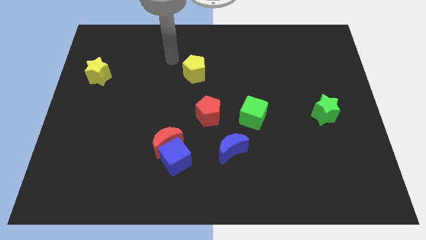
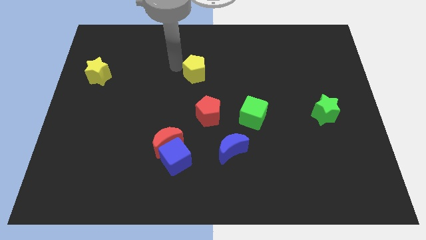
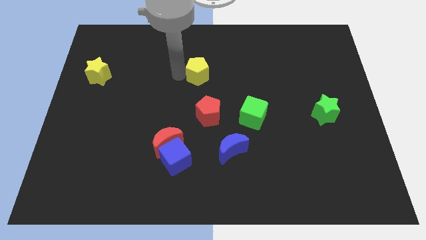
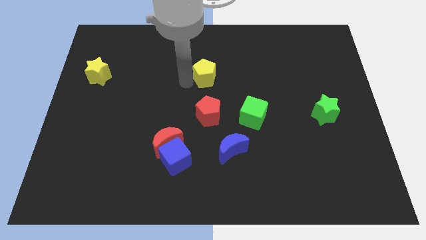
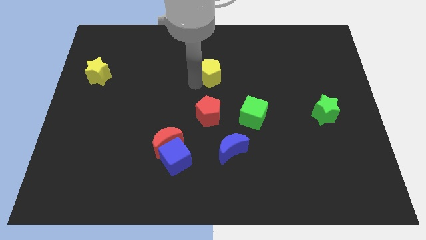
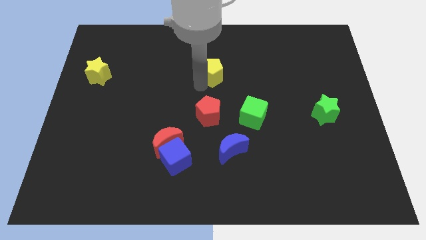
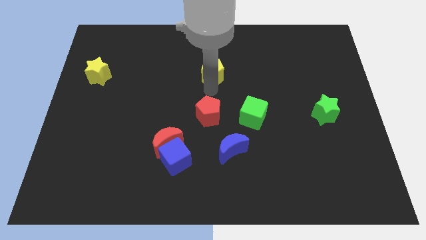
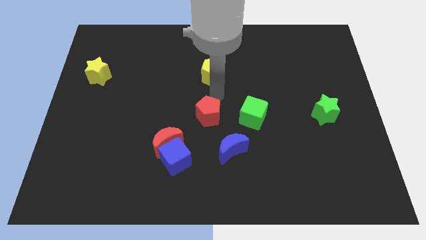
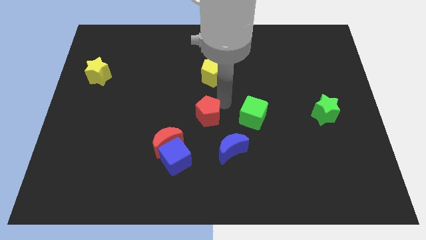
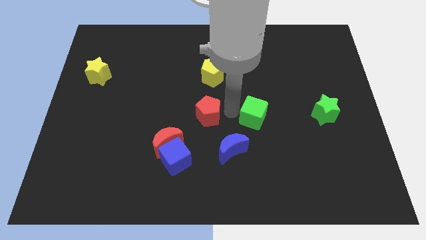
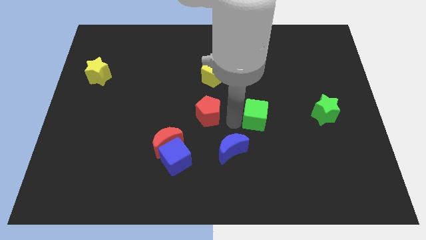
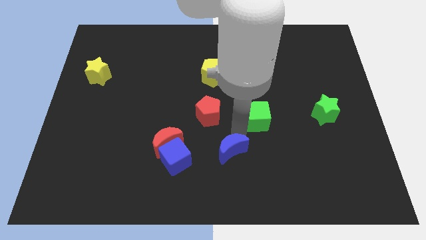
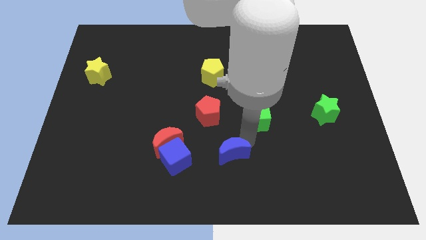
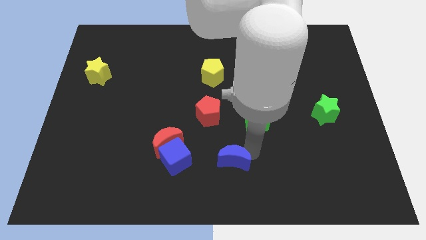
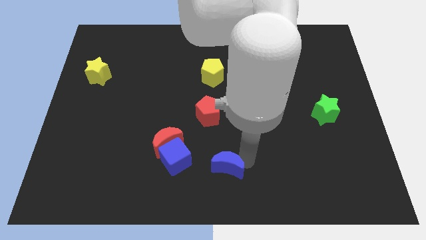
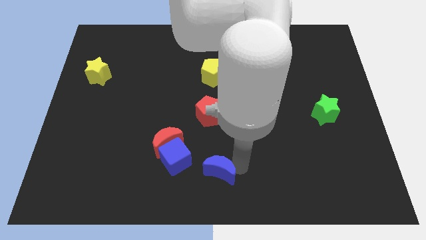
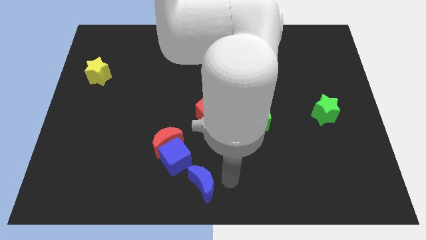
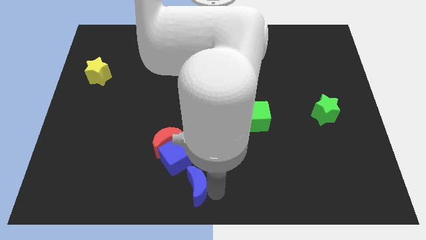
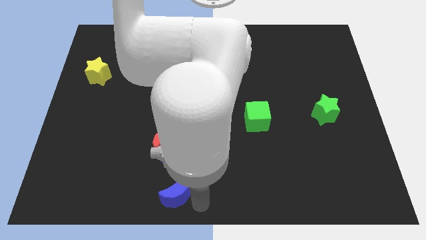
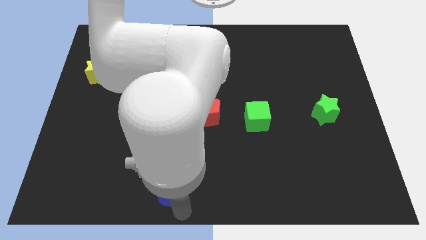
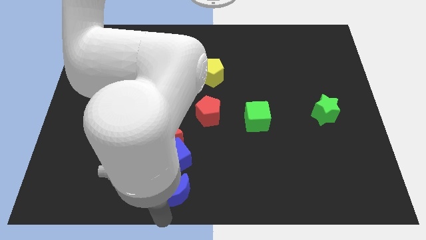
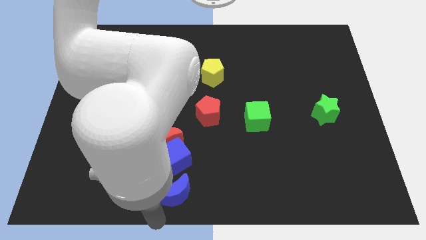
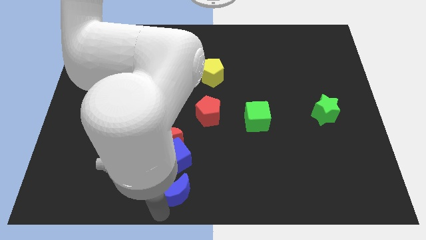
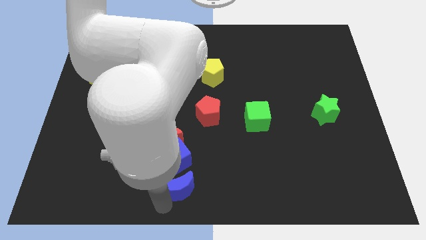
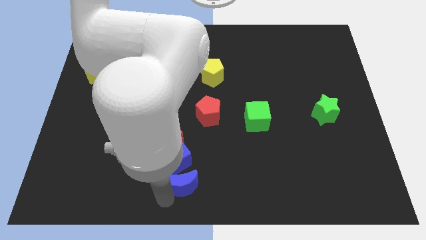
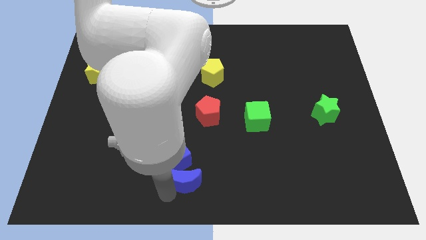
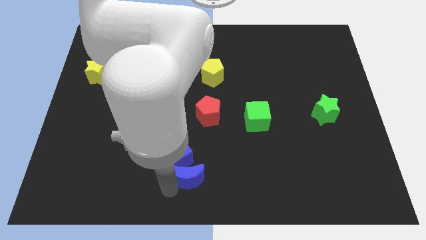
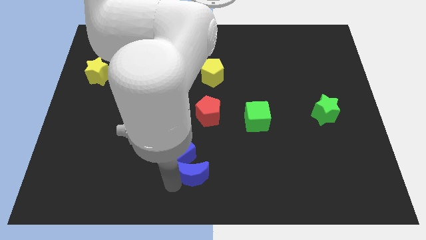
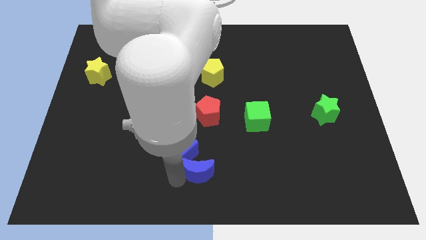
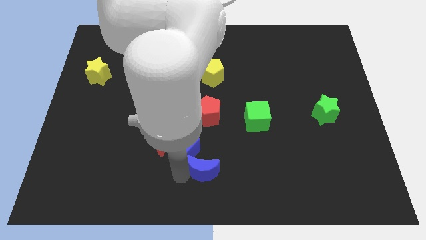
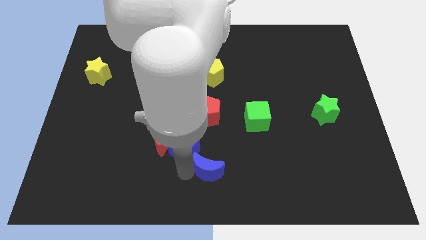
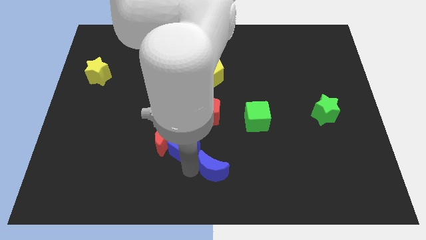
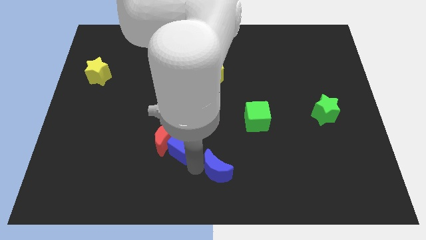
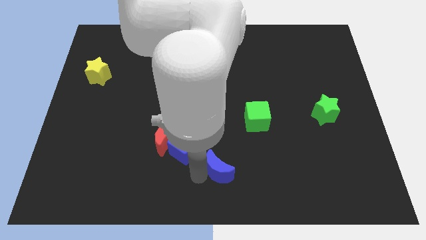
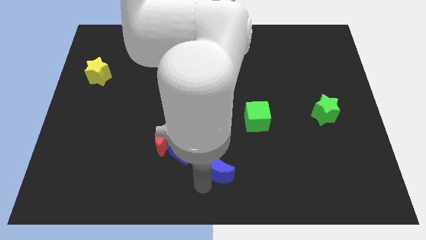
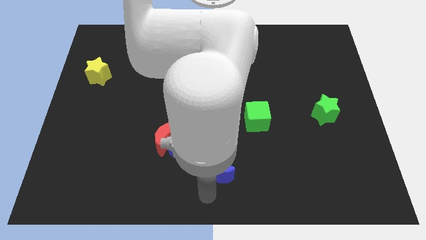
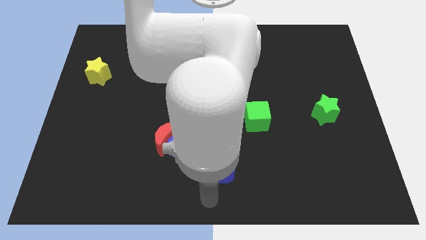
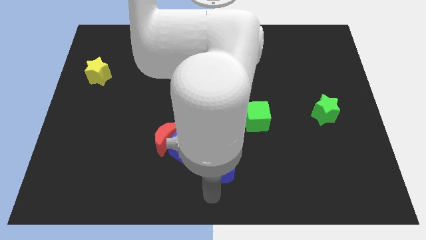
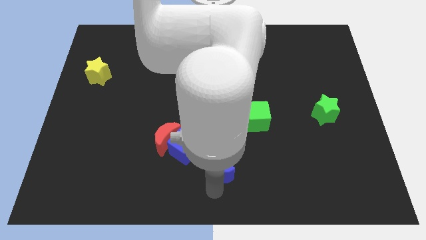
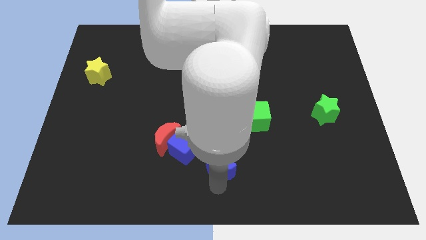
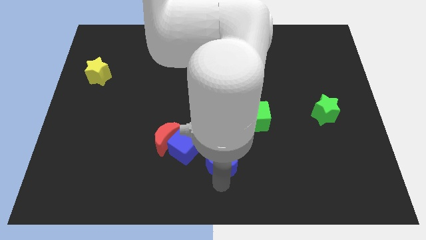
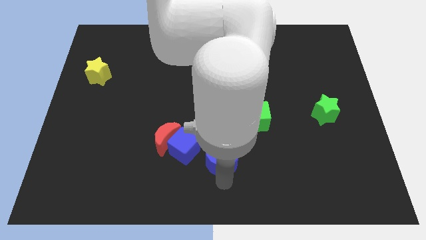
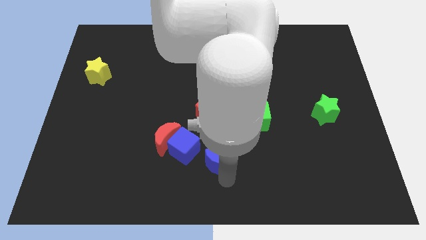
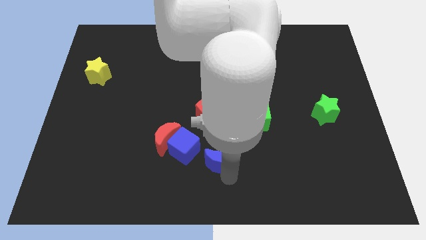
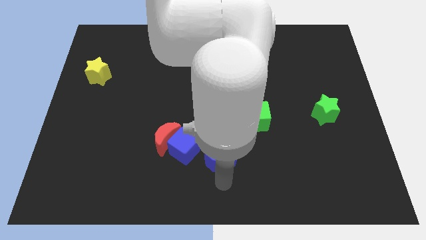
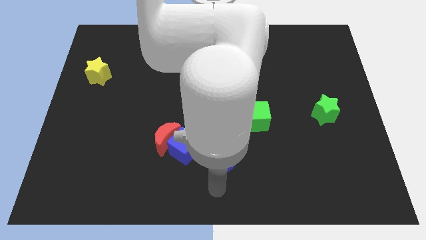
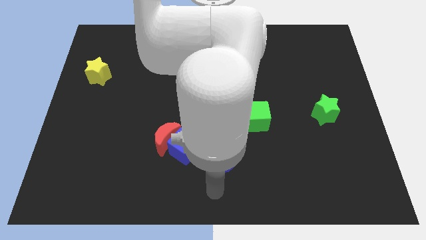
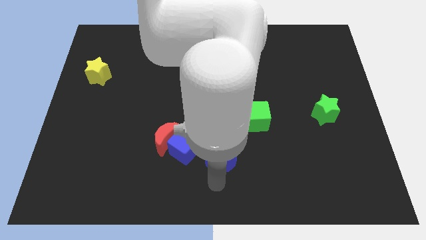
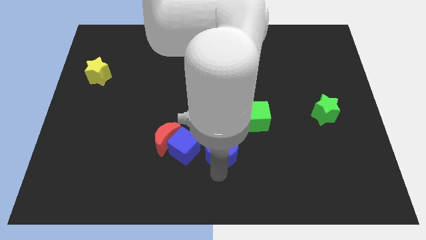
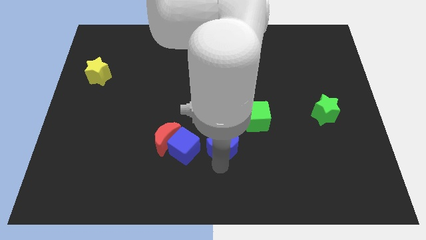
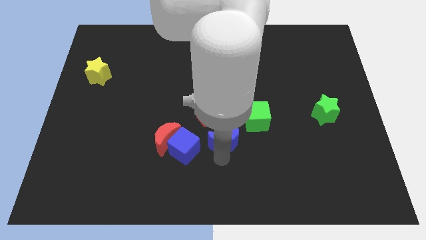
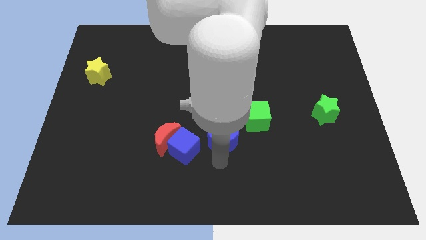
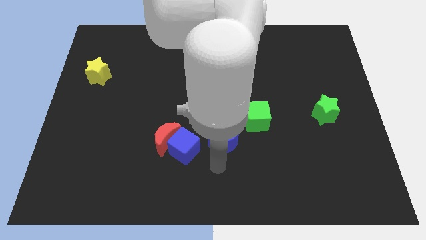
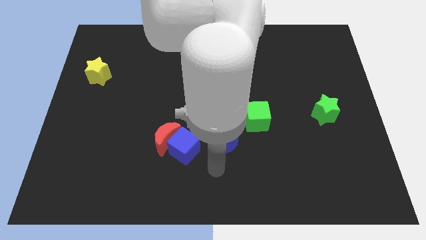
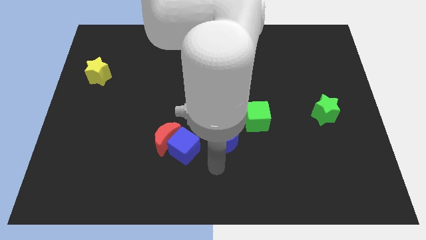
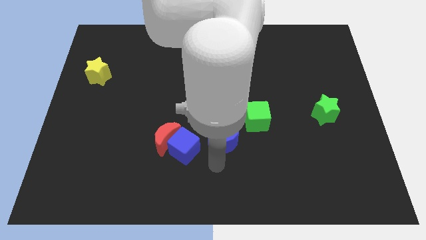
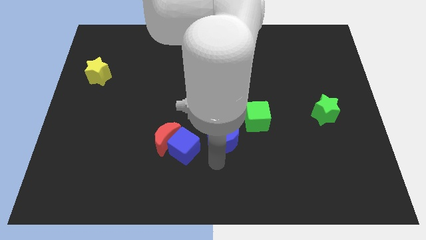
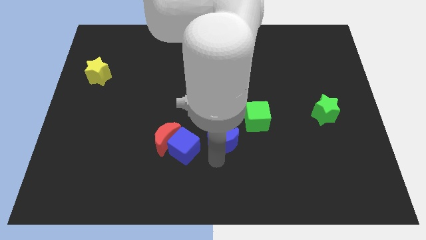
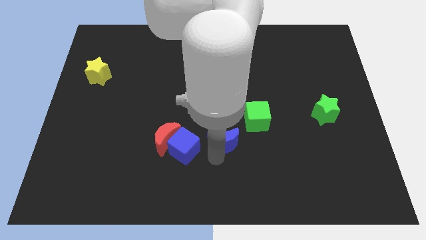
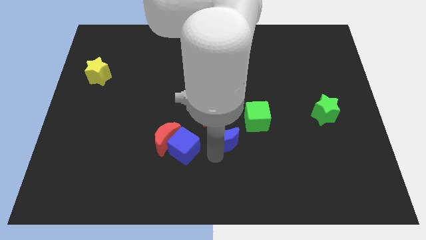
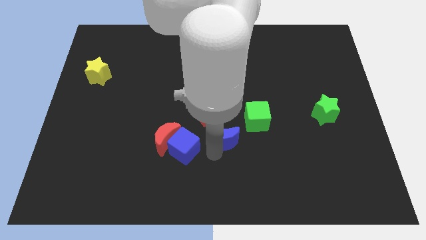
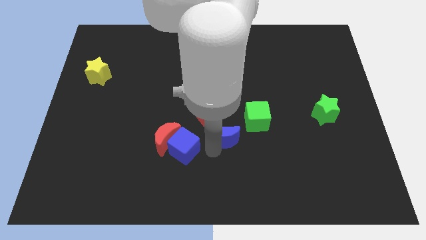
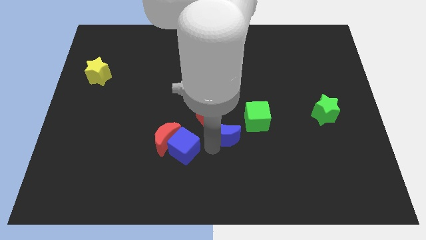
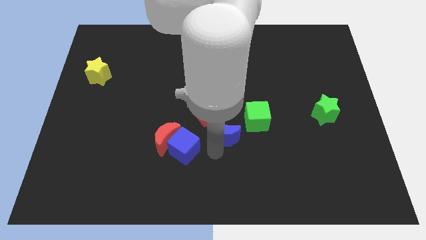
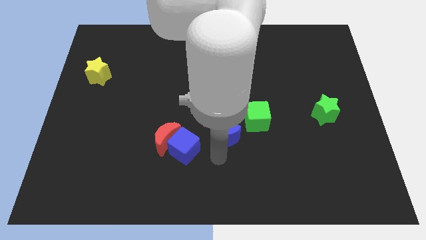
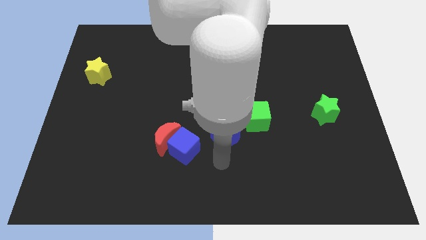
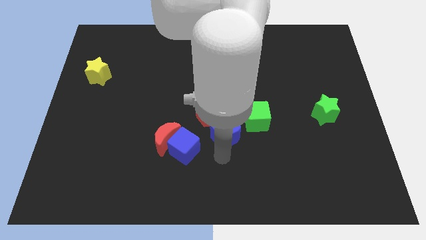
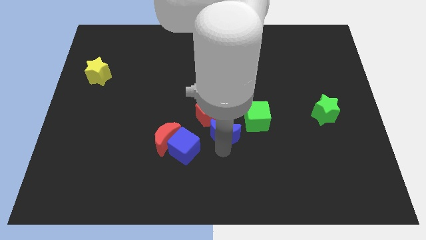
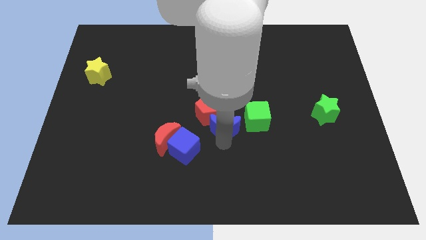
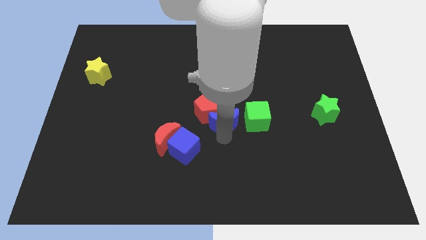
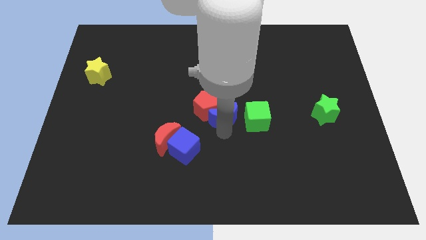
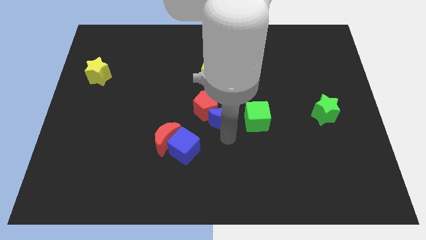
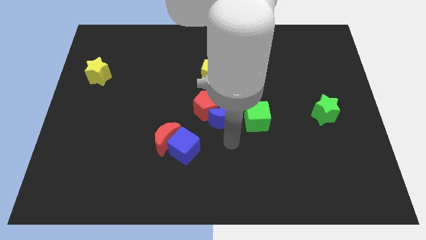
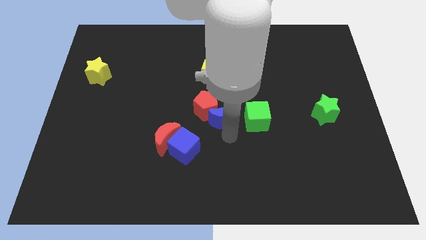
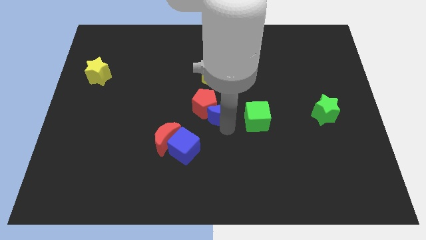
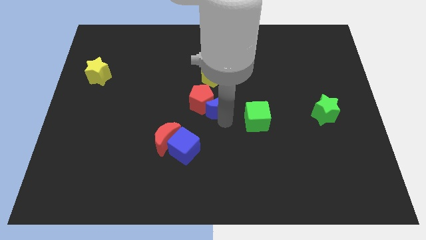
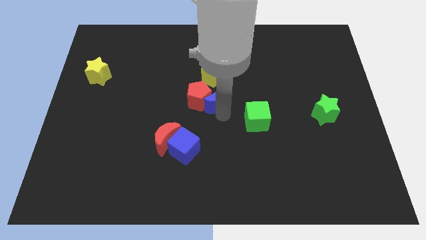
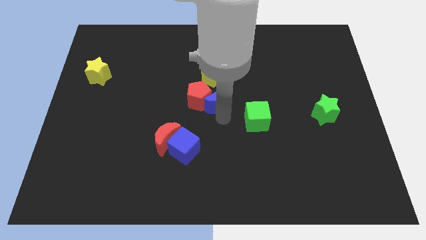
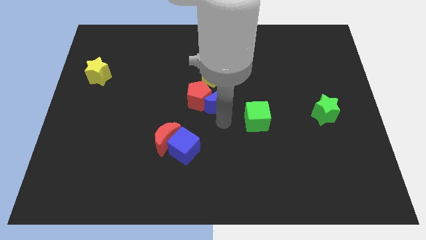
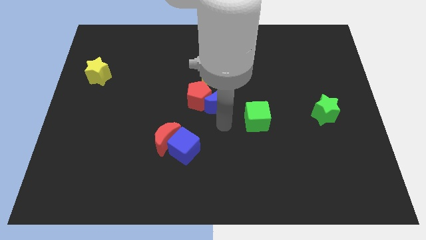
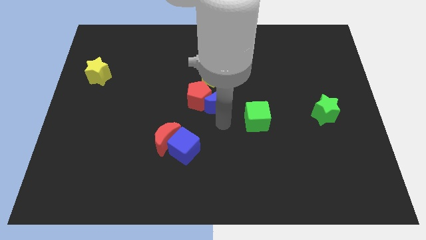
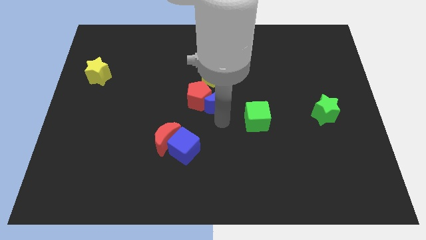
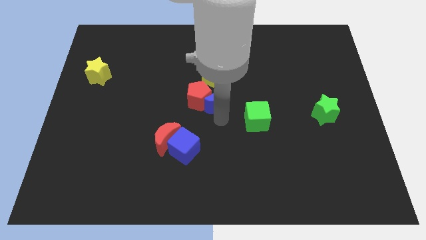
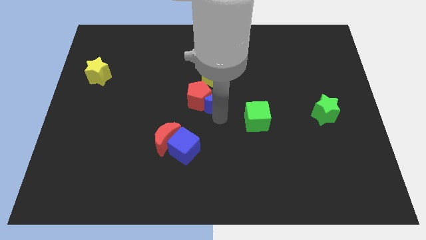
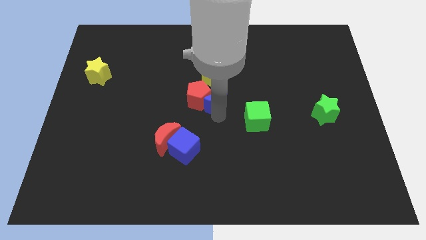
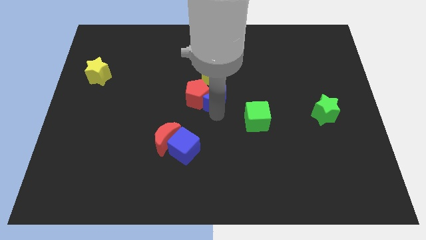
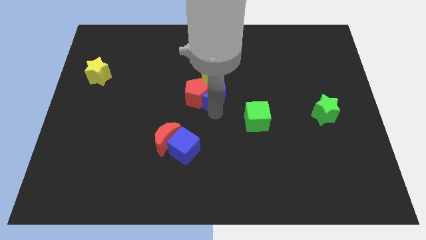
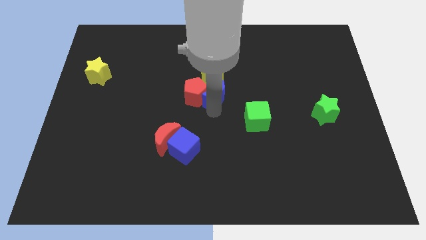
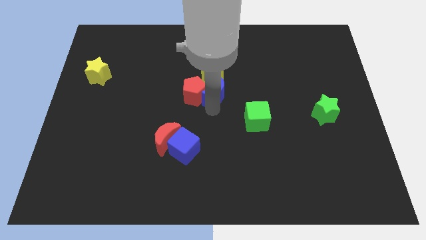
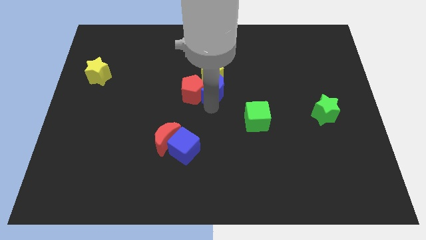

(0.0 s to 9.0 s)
put the blue moon towards the yellow pentagon
